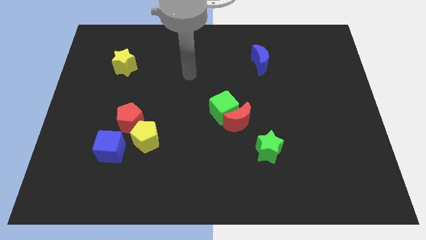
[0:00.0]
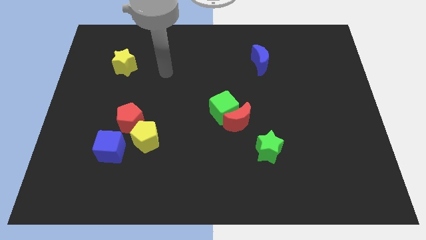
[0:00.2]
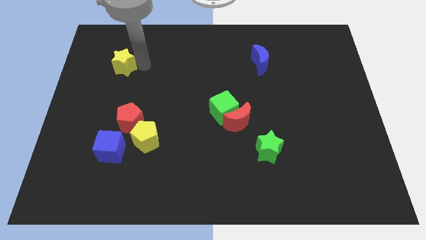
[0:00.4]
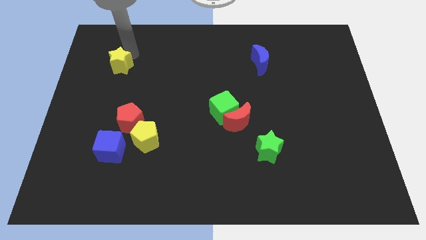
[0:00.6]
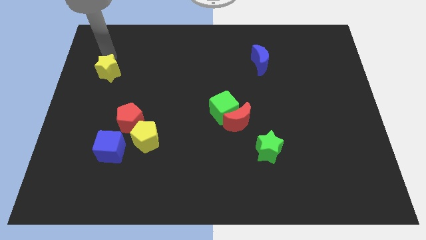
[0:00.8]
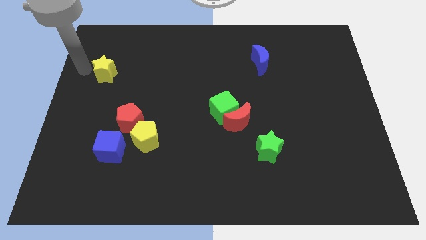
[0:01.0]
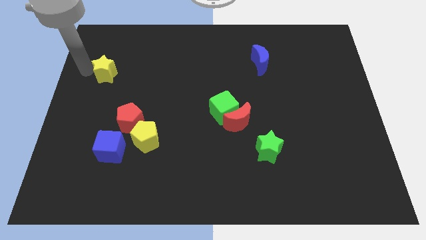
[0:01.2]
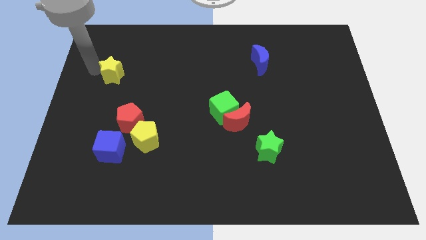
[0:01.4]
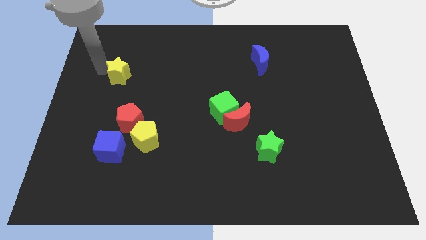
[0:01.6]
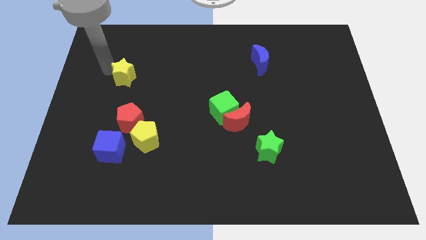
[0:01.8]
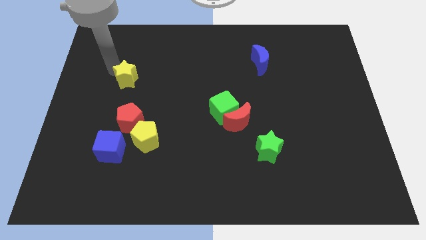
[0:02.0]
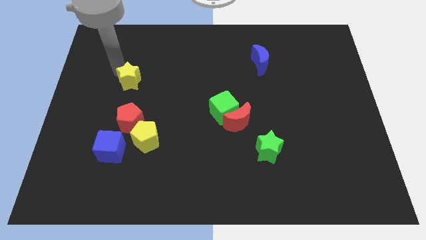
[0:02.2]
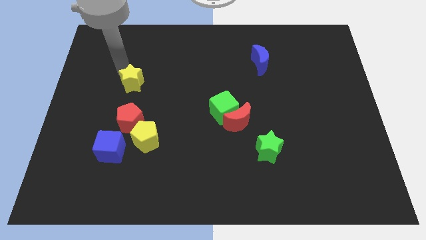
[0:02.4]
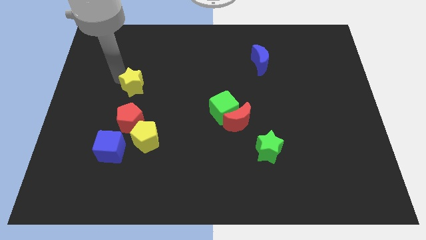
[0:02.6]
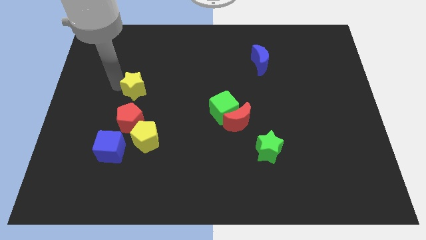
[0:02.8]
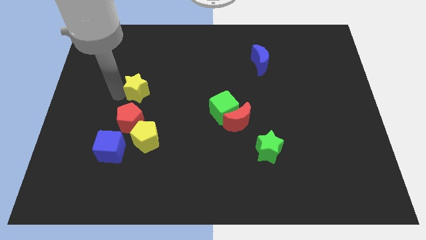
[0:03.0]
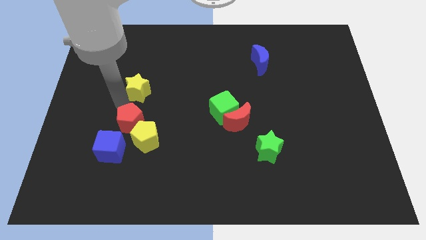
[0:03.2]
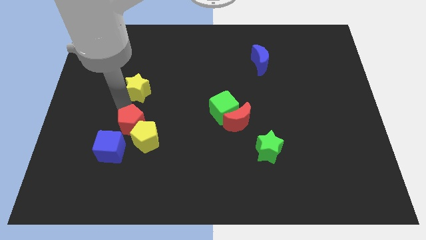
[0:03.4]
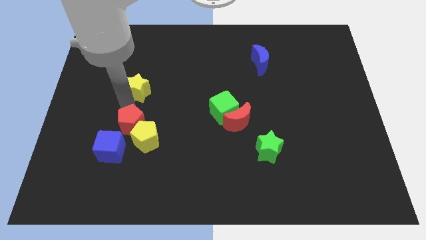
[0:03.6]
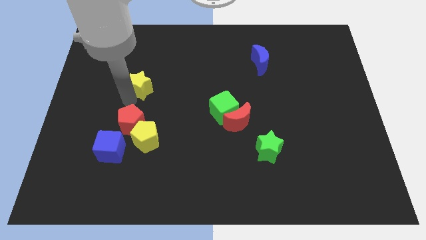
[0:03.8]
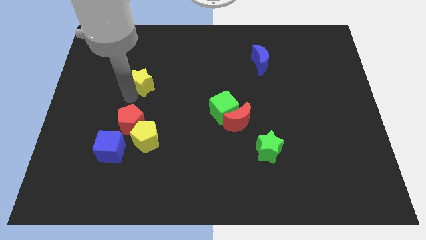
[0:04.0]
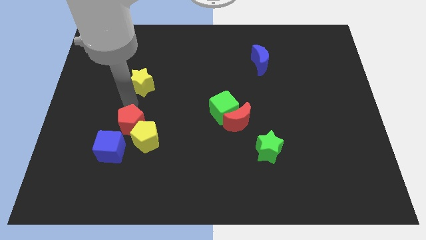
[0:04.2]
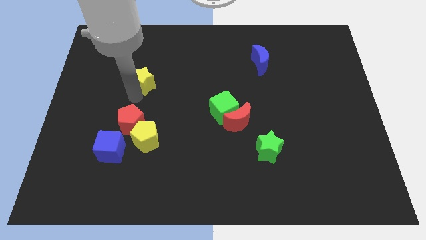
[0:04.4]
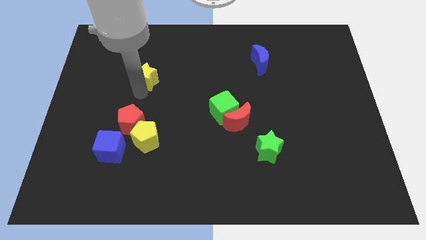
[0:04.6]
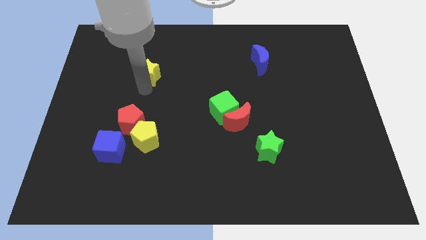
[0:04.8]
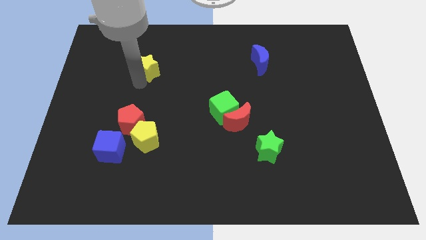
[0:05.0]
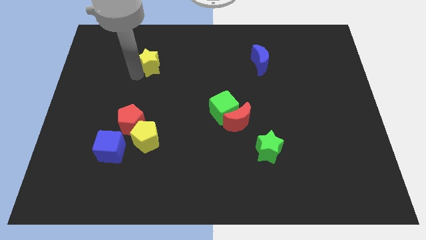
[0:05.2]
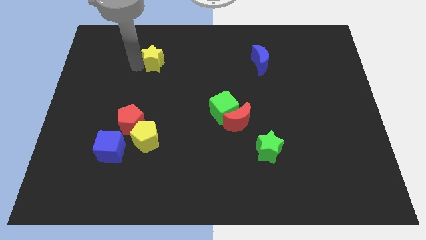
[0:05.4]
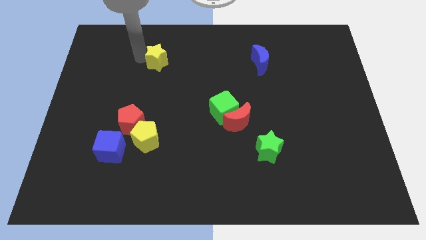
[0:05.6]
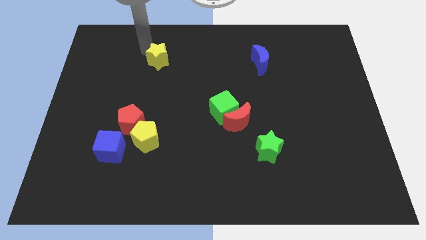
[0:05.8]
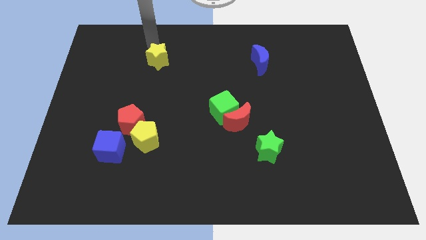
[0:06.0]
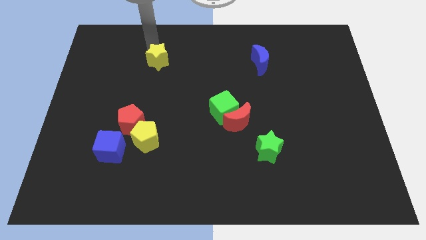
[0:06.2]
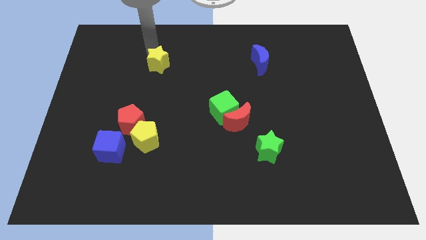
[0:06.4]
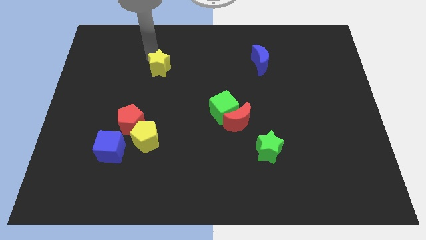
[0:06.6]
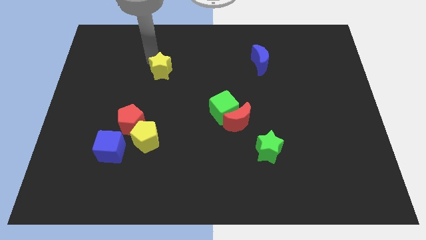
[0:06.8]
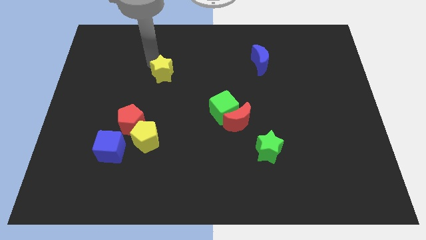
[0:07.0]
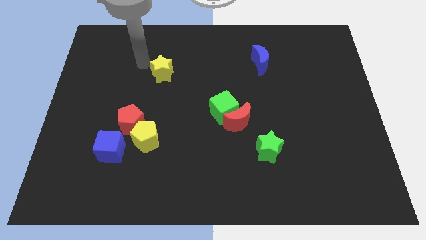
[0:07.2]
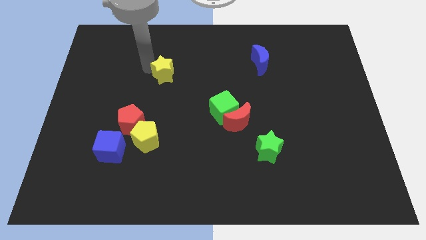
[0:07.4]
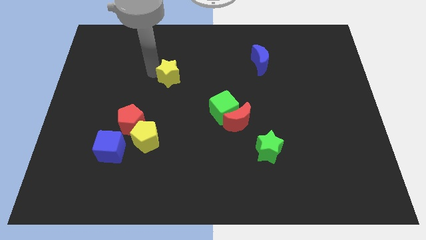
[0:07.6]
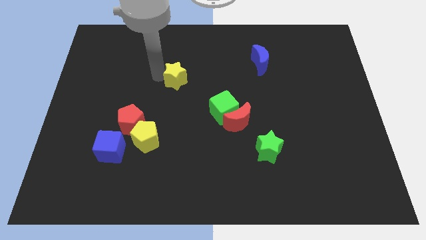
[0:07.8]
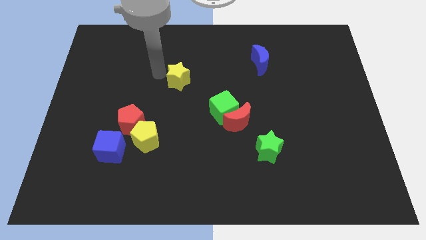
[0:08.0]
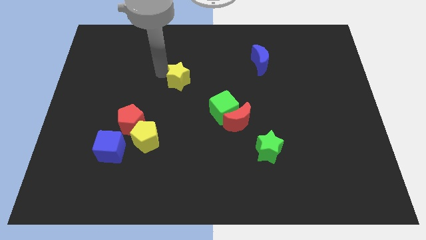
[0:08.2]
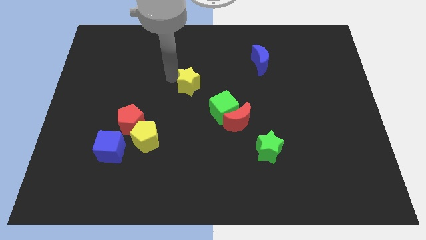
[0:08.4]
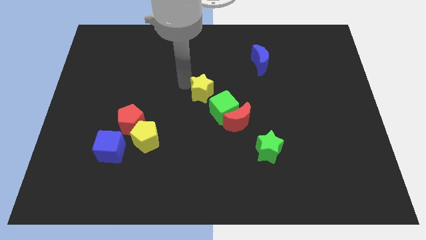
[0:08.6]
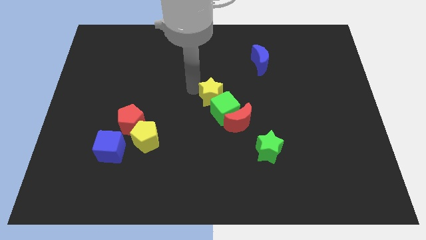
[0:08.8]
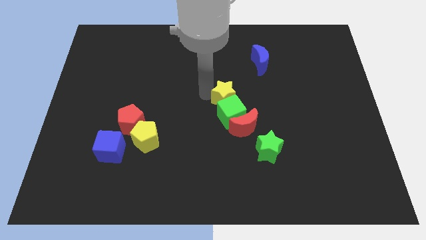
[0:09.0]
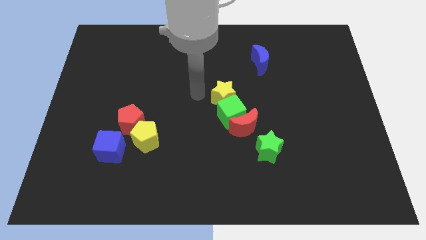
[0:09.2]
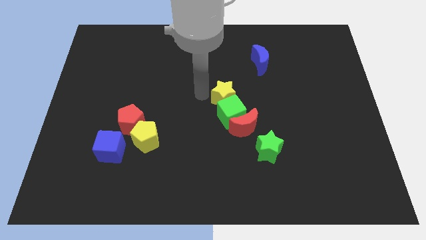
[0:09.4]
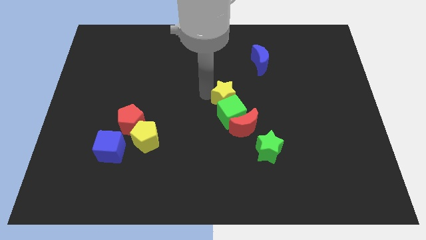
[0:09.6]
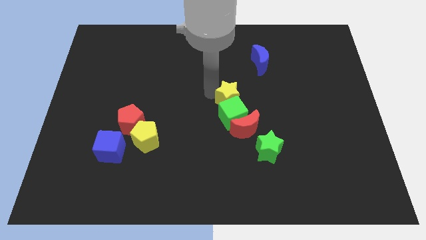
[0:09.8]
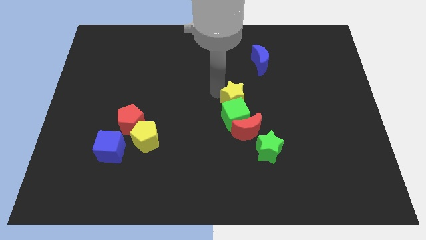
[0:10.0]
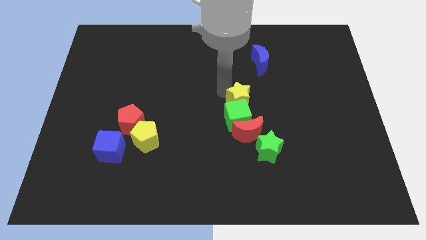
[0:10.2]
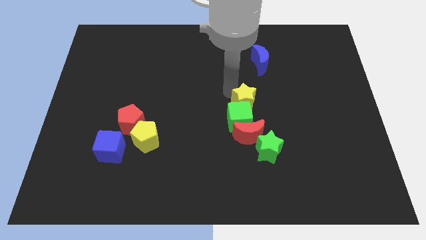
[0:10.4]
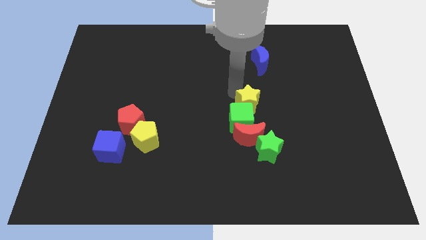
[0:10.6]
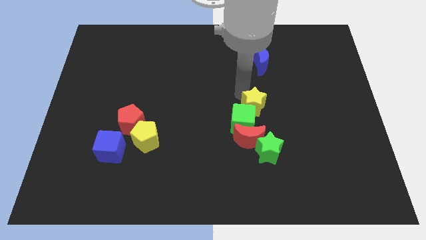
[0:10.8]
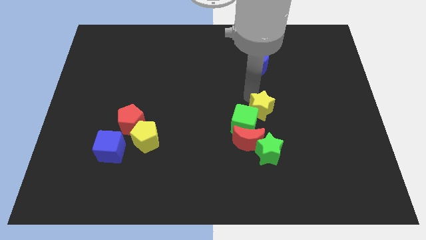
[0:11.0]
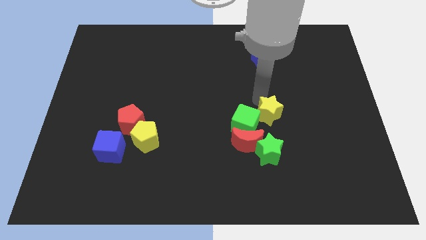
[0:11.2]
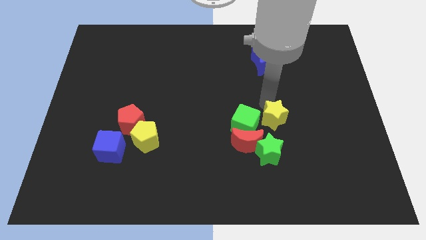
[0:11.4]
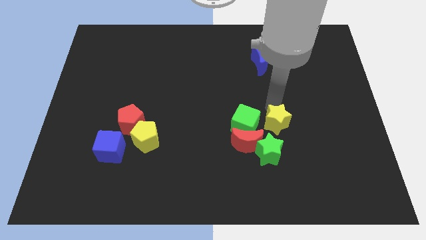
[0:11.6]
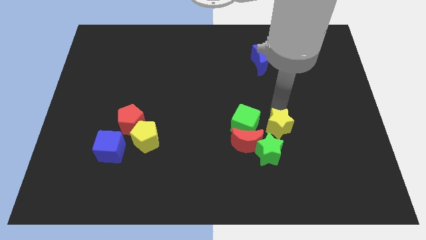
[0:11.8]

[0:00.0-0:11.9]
slide the yellow star to the right of the red moon
